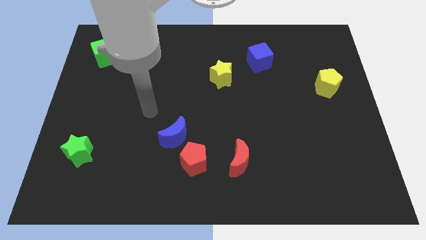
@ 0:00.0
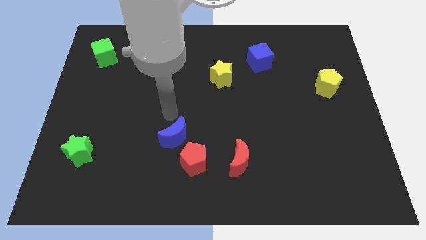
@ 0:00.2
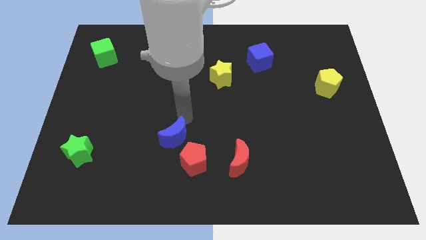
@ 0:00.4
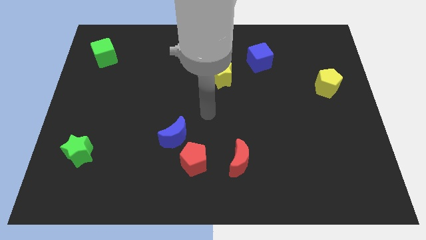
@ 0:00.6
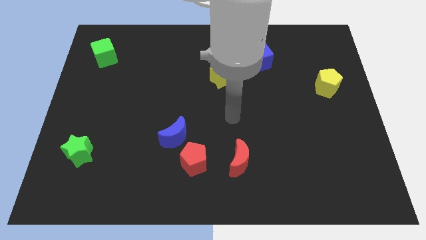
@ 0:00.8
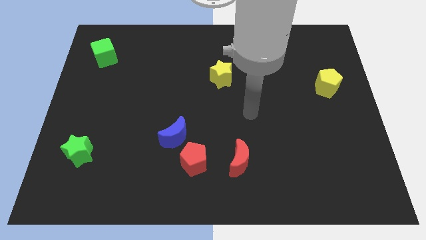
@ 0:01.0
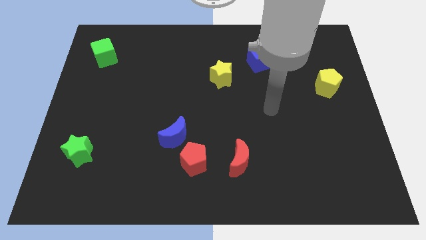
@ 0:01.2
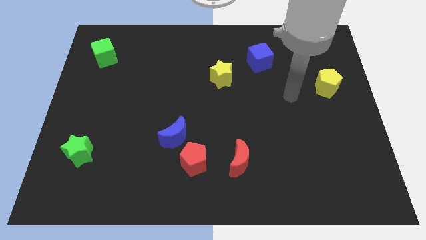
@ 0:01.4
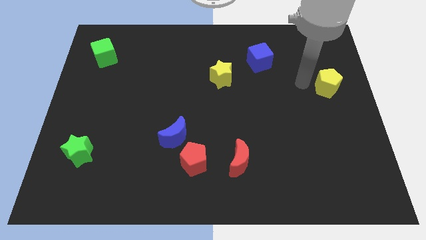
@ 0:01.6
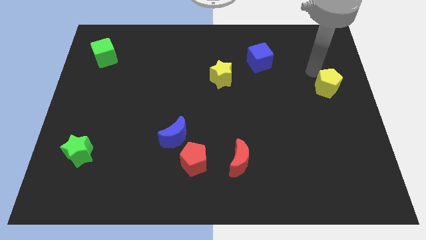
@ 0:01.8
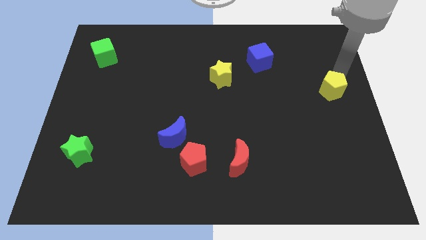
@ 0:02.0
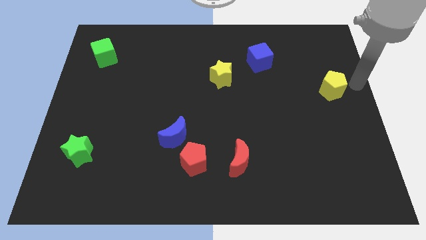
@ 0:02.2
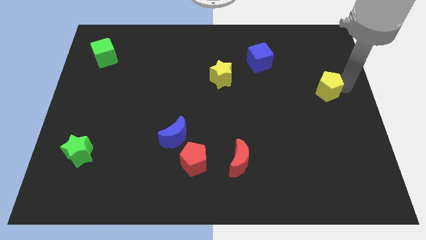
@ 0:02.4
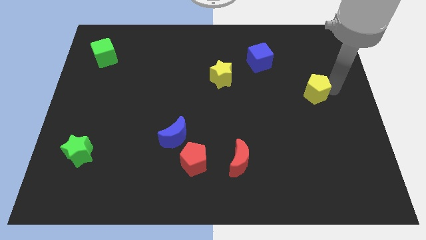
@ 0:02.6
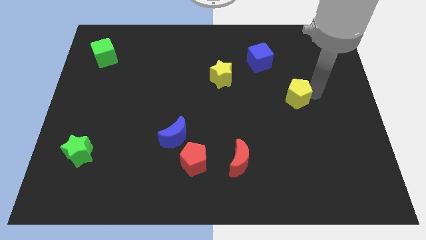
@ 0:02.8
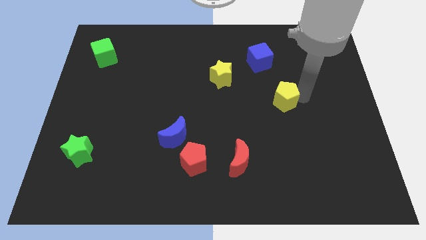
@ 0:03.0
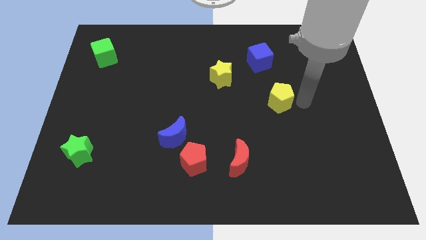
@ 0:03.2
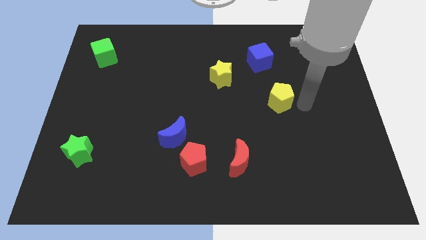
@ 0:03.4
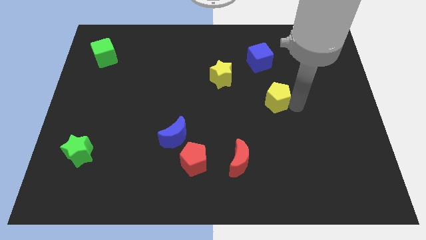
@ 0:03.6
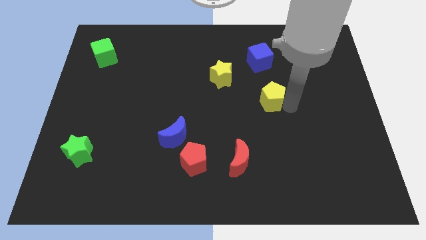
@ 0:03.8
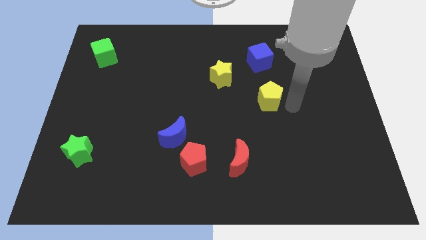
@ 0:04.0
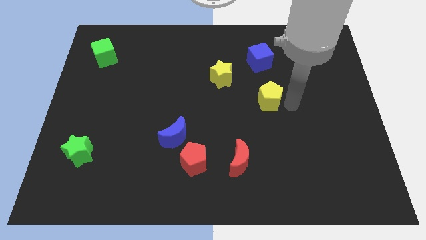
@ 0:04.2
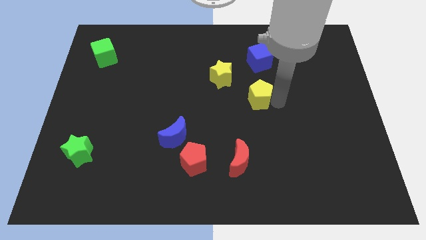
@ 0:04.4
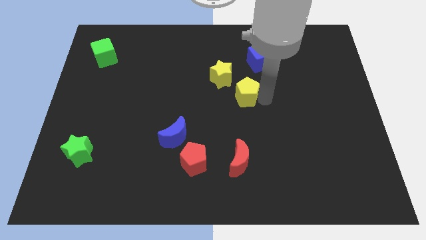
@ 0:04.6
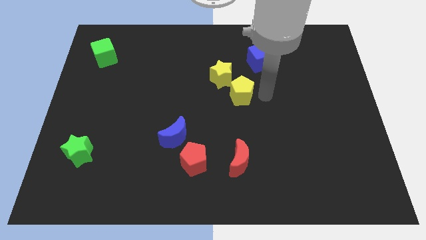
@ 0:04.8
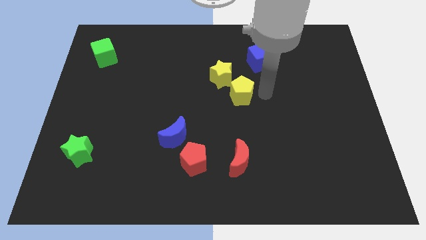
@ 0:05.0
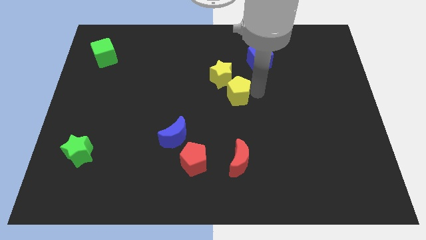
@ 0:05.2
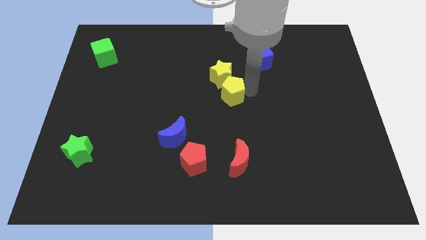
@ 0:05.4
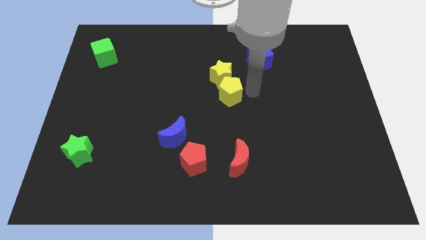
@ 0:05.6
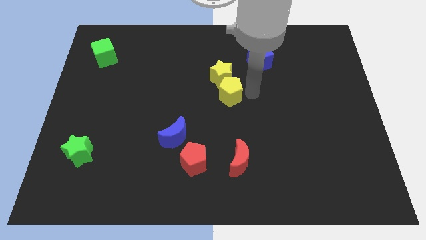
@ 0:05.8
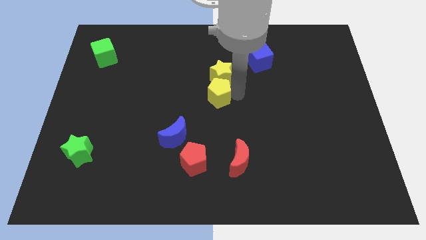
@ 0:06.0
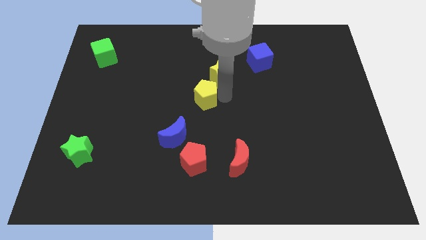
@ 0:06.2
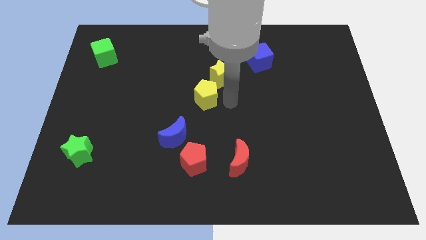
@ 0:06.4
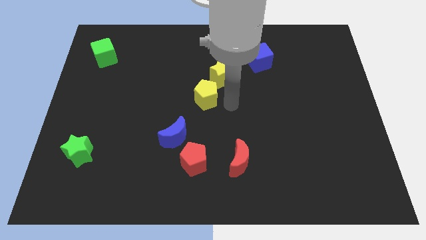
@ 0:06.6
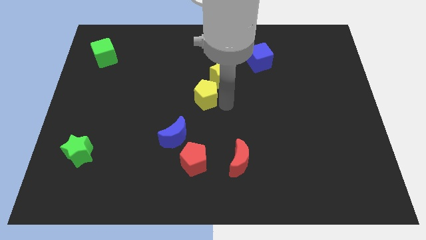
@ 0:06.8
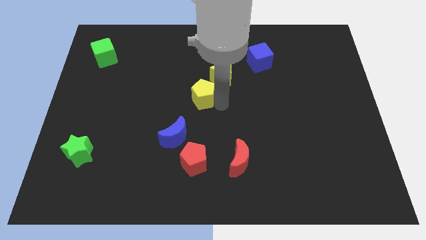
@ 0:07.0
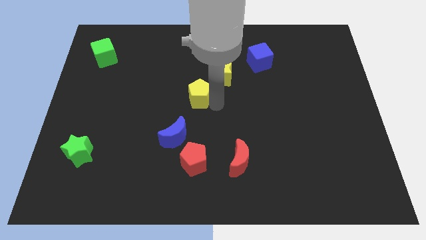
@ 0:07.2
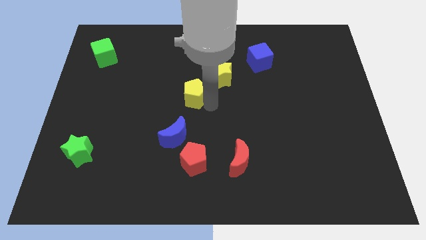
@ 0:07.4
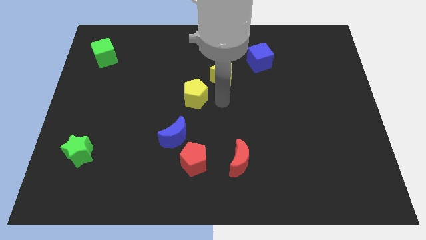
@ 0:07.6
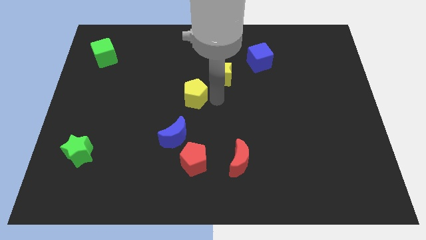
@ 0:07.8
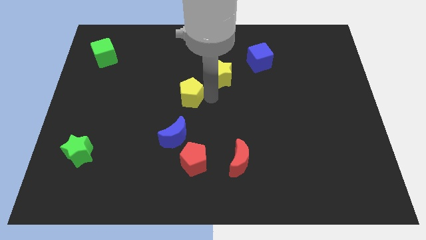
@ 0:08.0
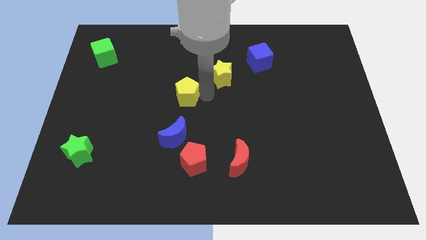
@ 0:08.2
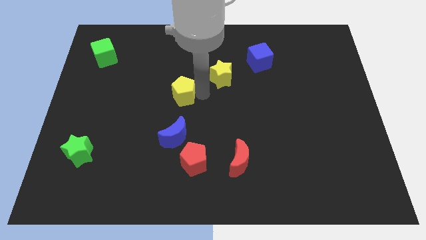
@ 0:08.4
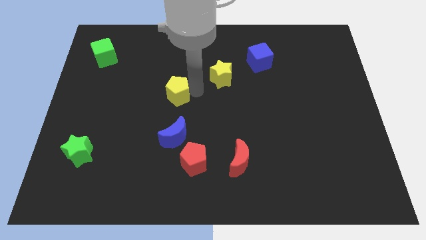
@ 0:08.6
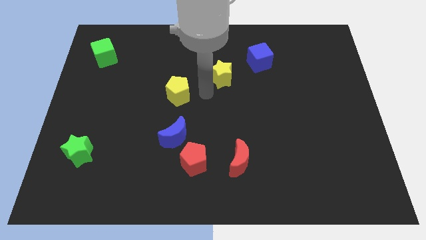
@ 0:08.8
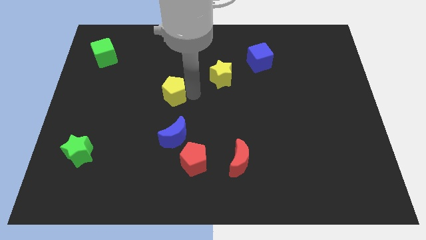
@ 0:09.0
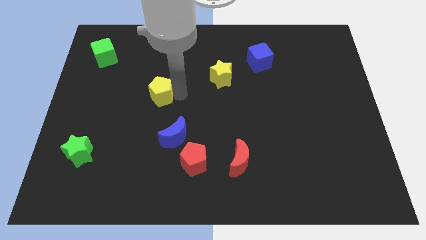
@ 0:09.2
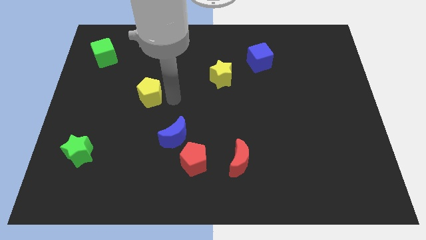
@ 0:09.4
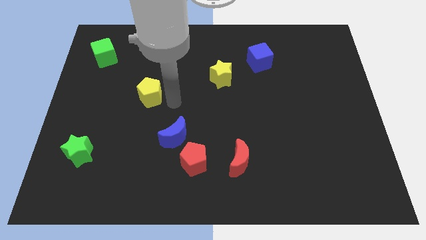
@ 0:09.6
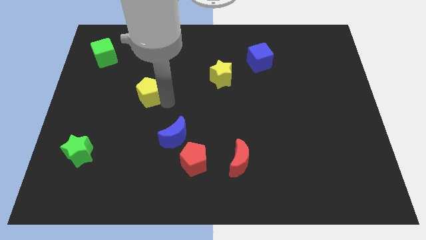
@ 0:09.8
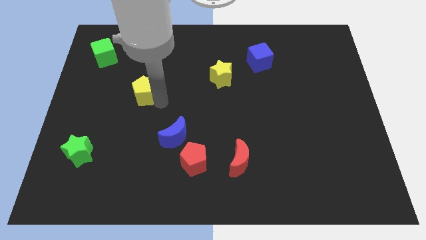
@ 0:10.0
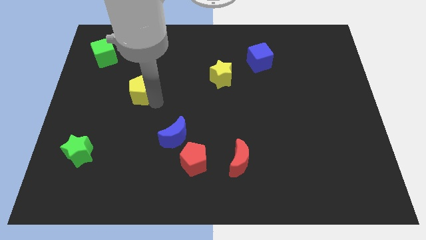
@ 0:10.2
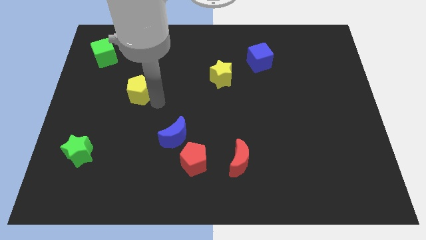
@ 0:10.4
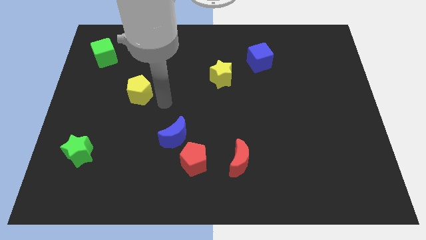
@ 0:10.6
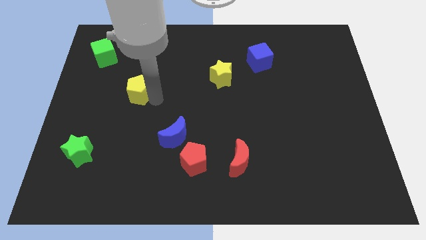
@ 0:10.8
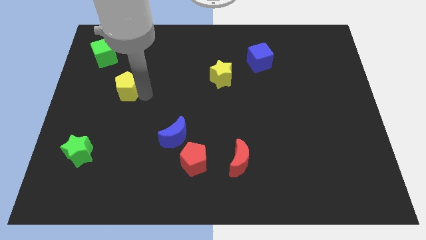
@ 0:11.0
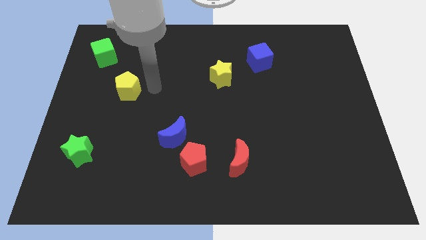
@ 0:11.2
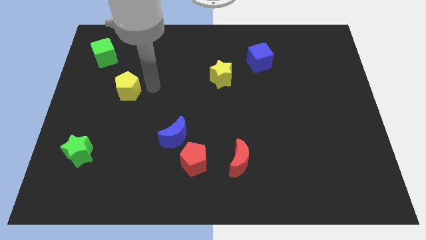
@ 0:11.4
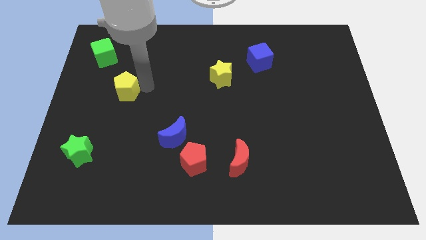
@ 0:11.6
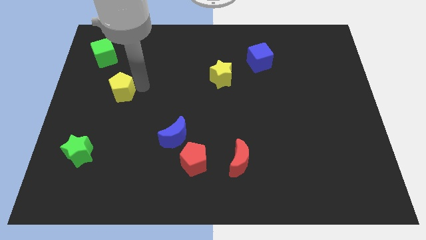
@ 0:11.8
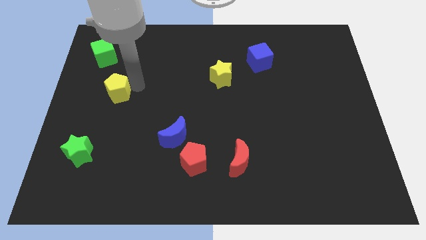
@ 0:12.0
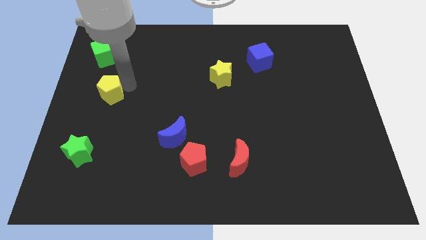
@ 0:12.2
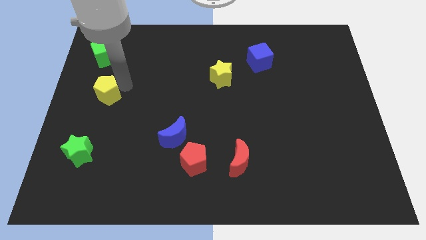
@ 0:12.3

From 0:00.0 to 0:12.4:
move the yellow pentagon to the left side of the board
